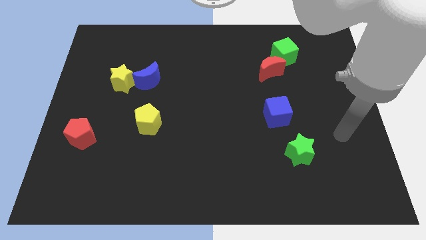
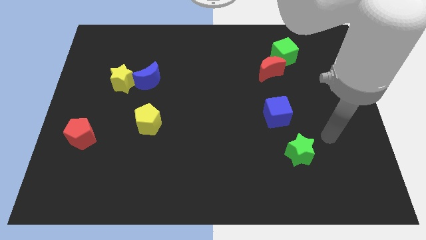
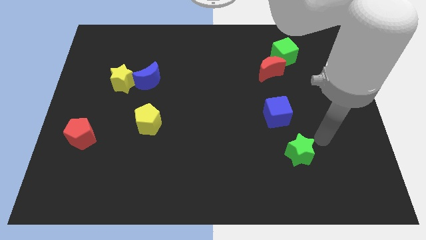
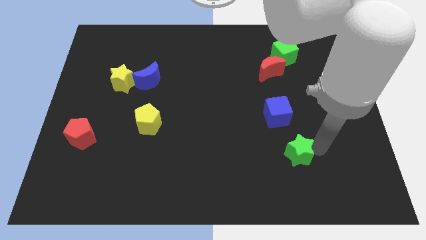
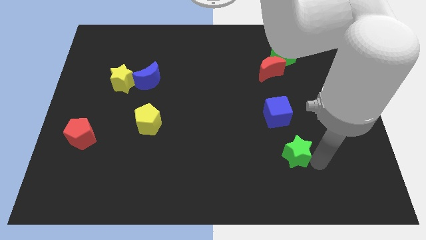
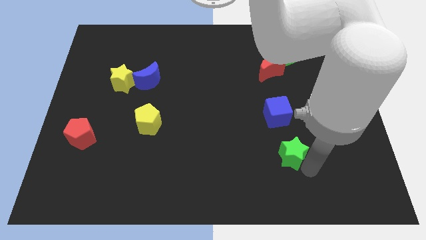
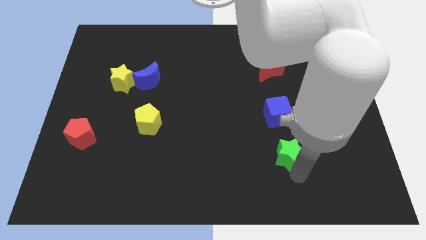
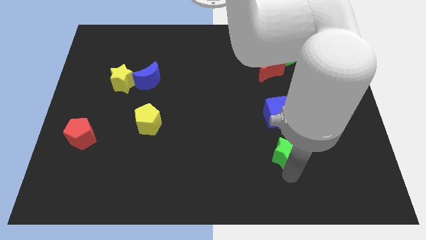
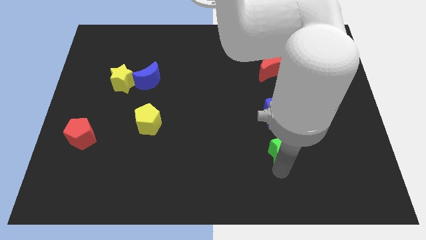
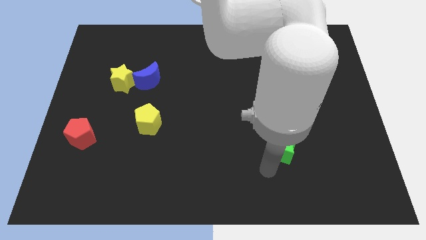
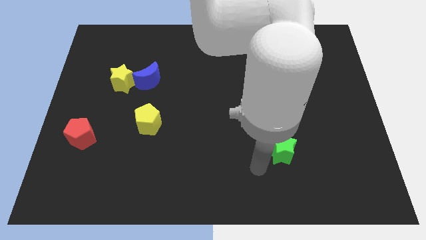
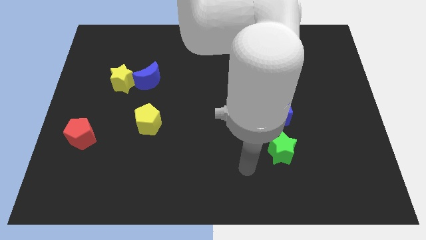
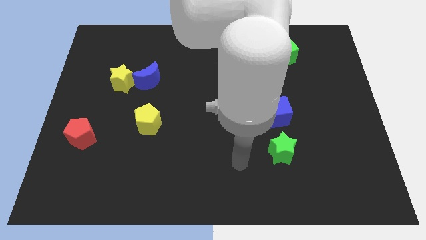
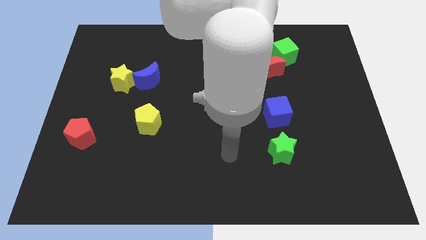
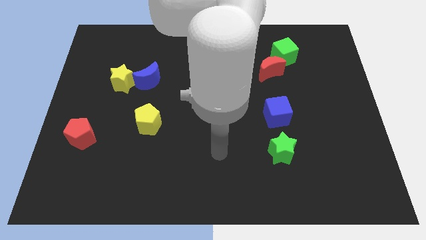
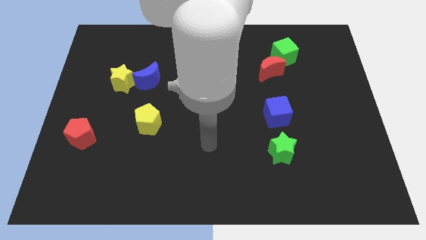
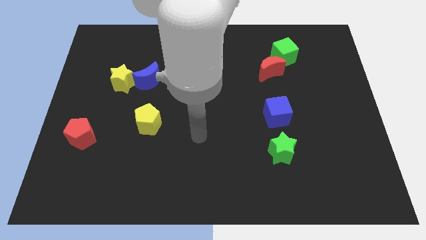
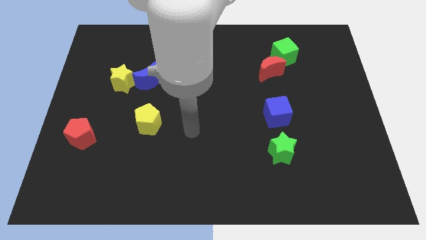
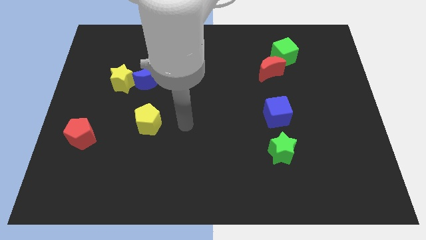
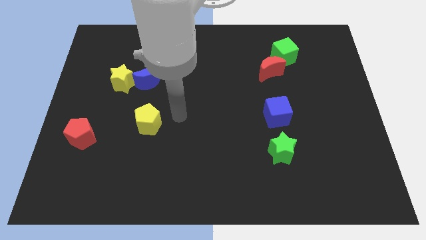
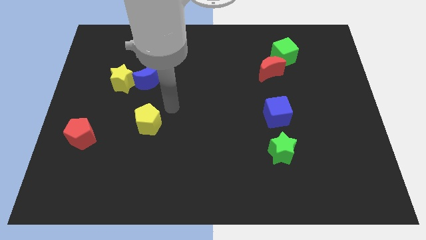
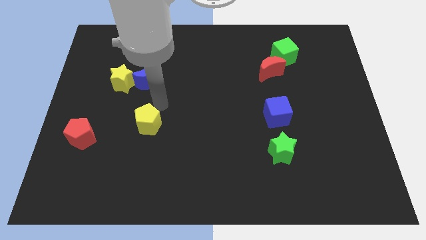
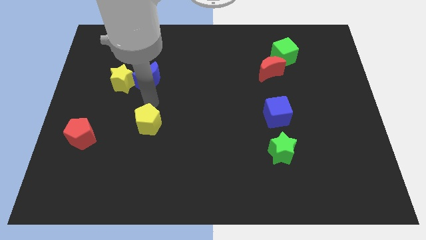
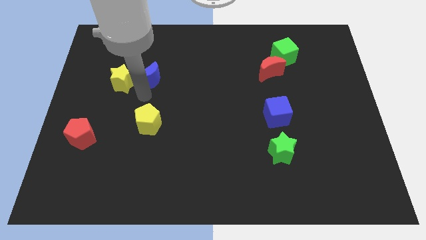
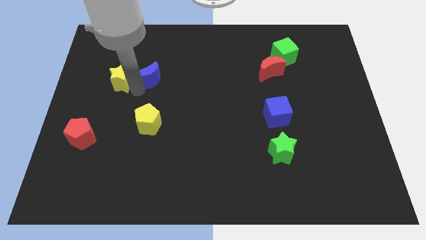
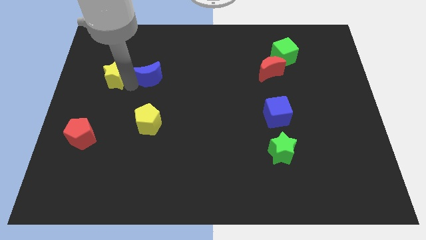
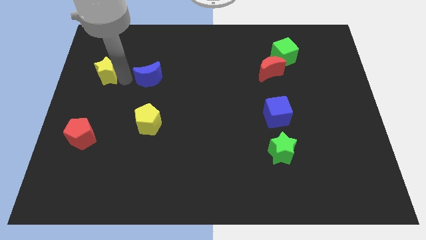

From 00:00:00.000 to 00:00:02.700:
pull the blue moon apart from the yellow star

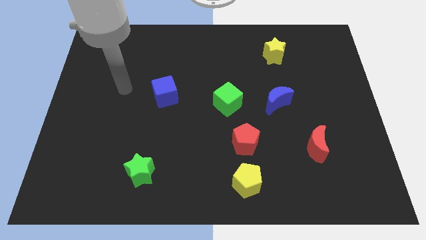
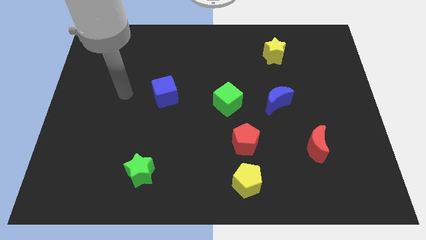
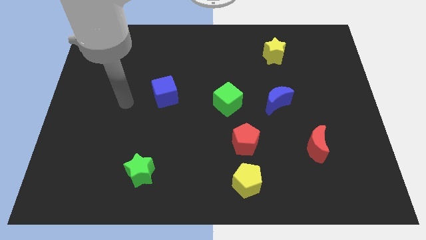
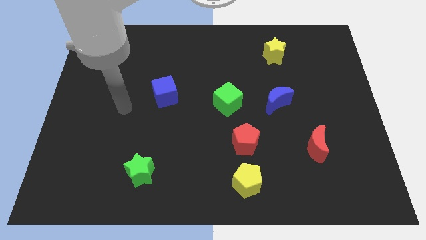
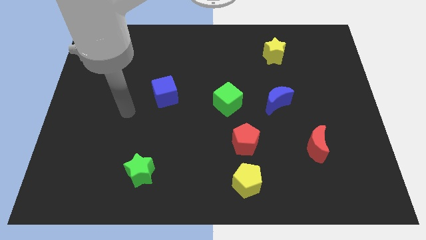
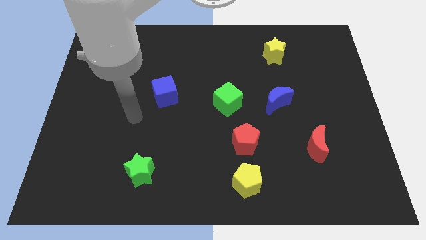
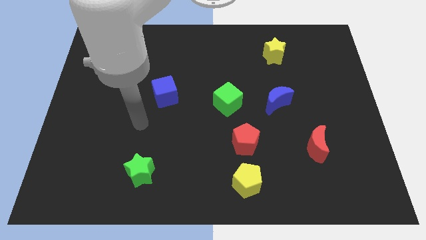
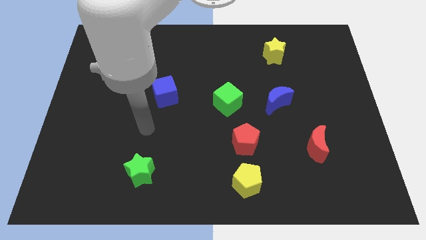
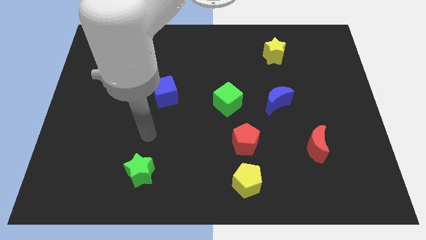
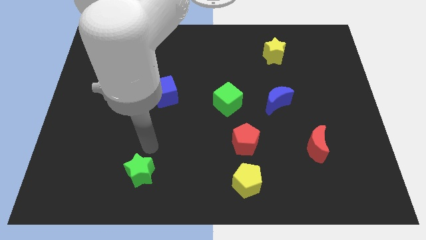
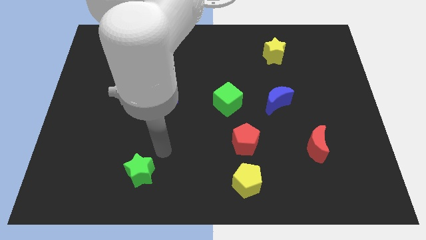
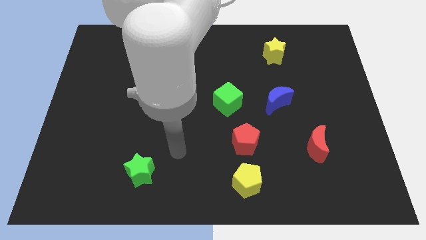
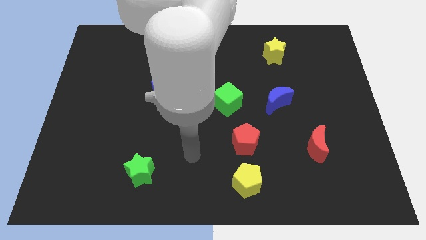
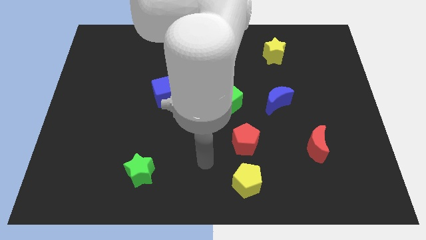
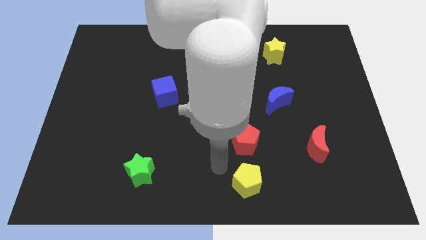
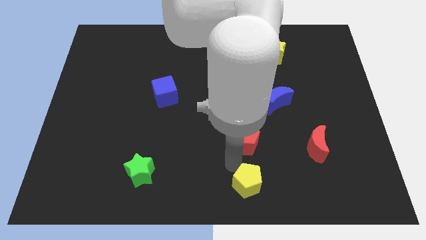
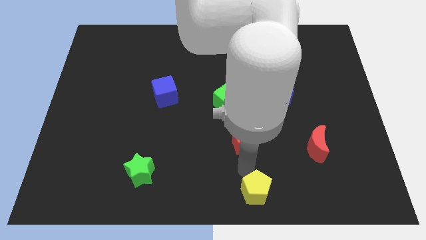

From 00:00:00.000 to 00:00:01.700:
separate the red pentagon from the yellow pentagon

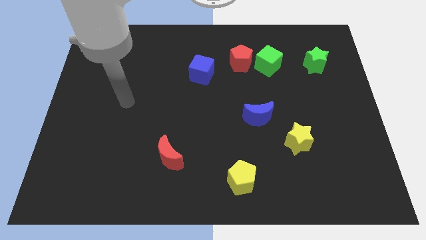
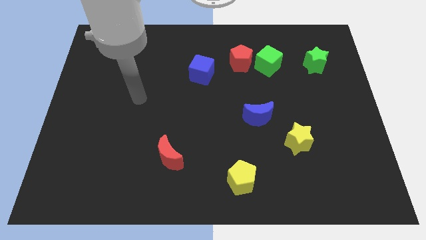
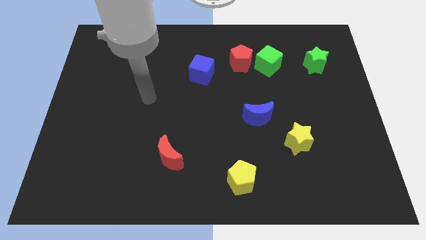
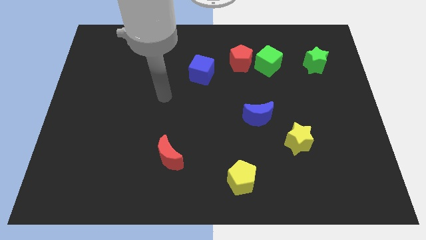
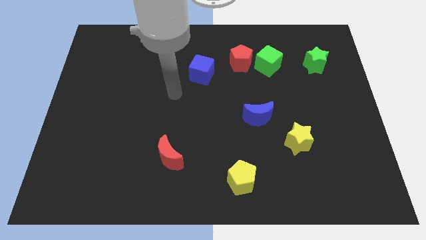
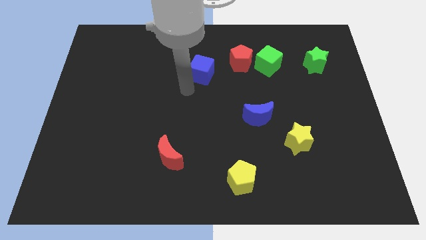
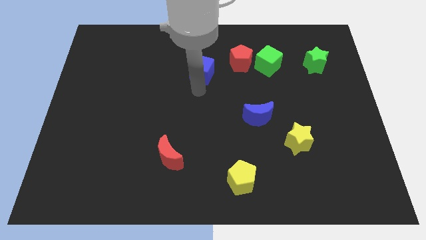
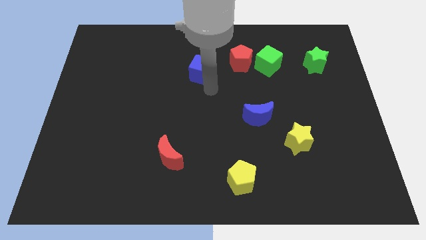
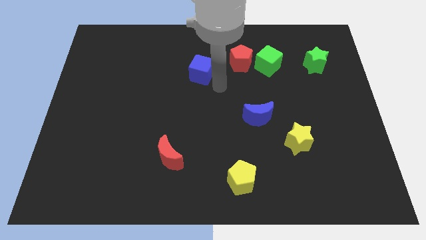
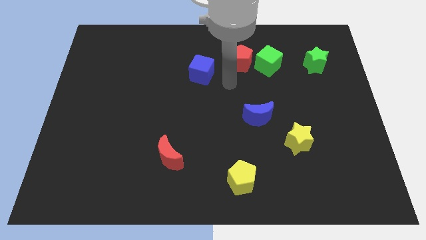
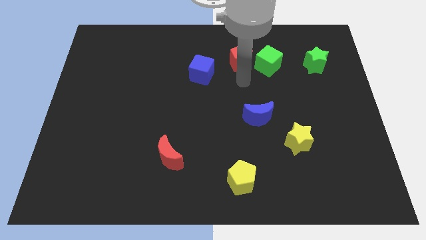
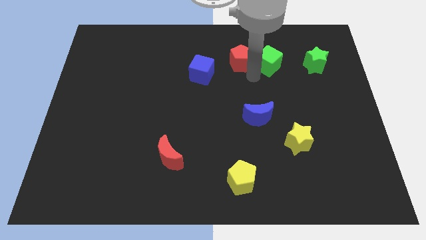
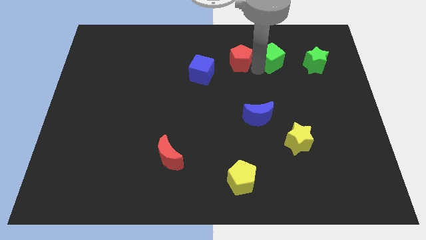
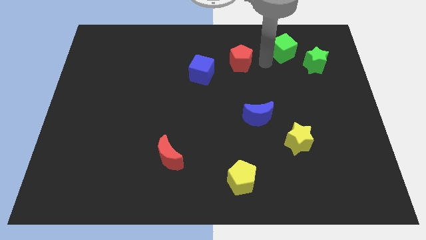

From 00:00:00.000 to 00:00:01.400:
move the red pentagon away from the green cube

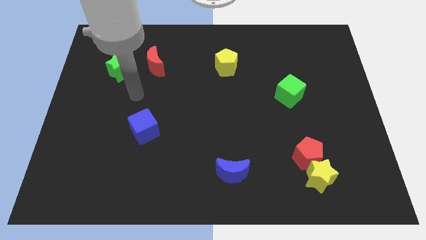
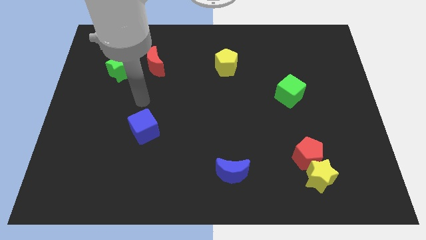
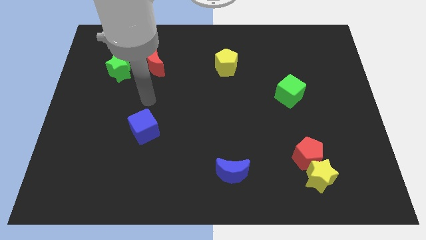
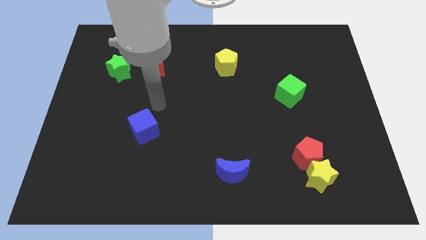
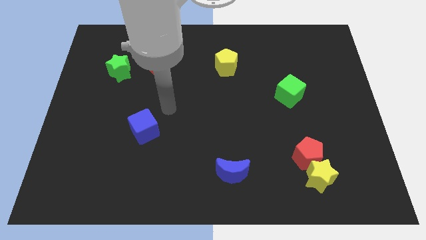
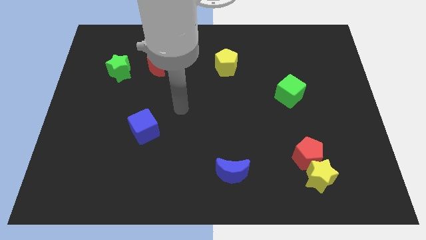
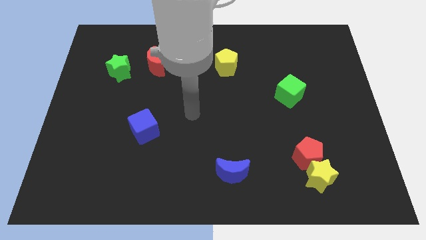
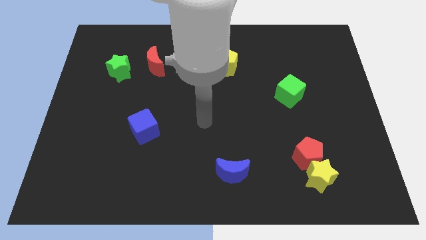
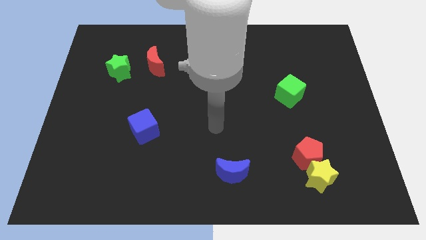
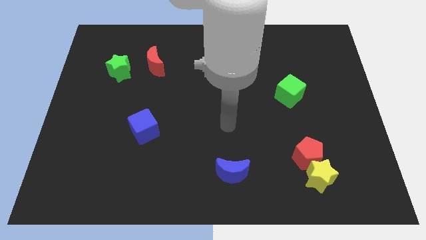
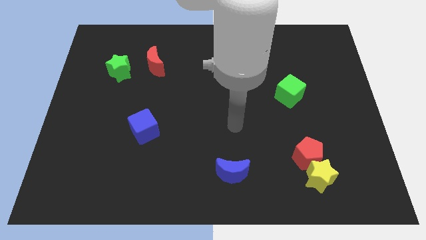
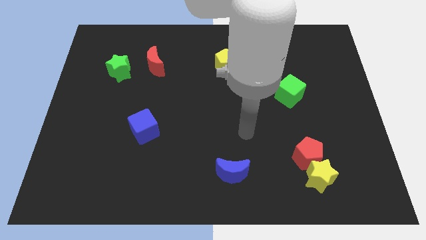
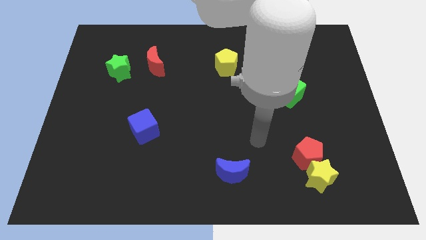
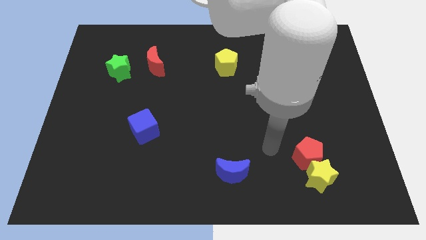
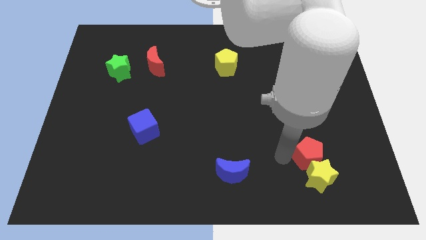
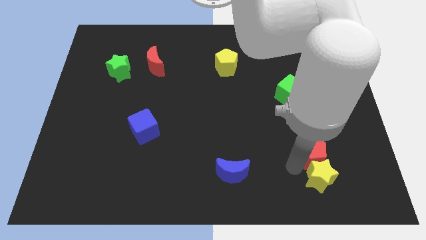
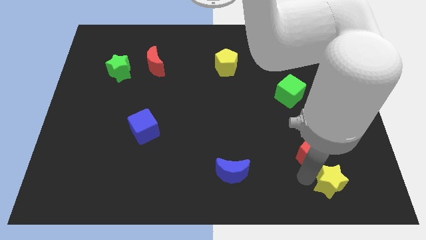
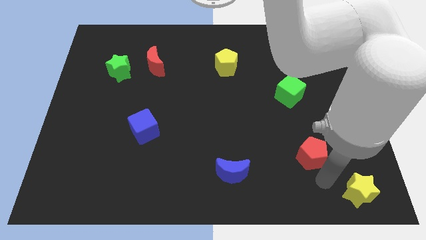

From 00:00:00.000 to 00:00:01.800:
move the red pentagon away from the yellow star

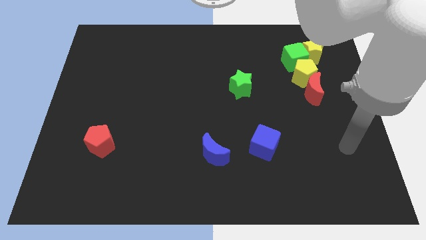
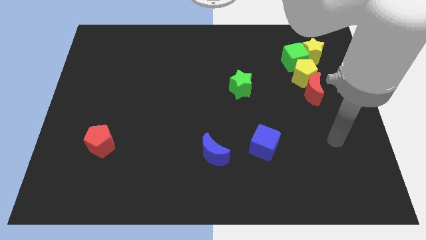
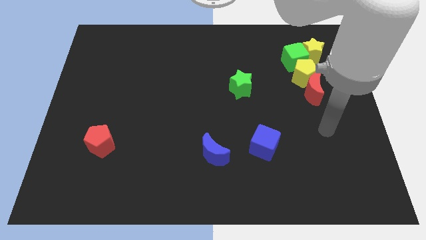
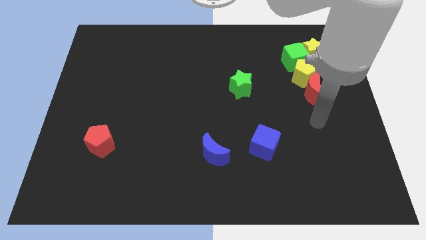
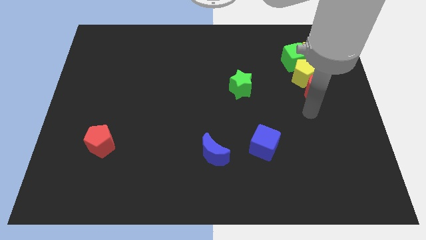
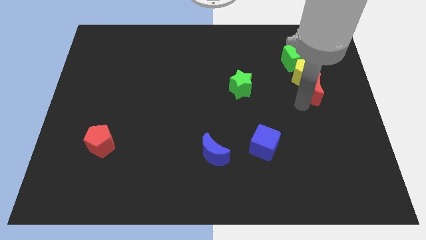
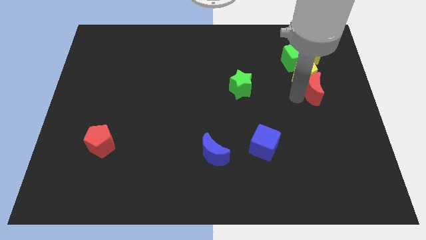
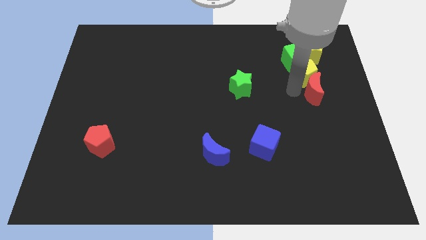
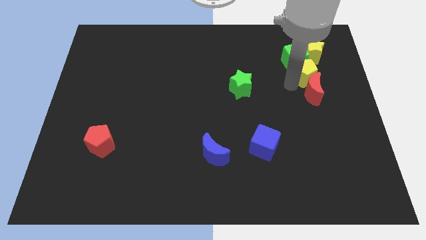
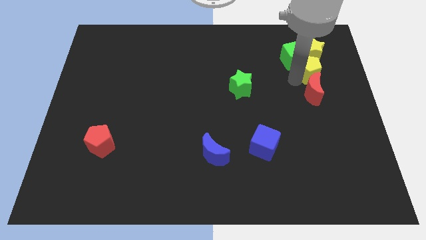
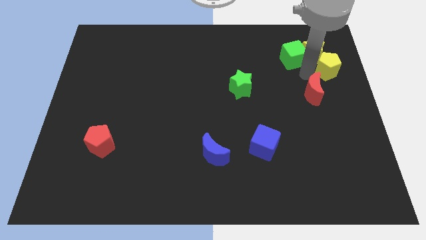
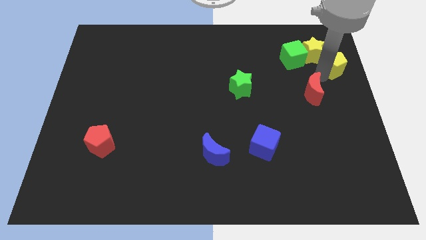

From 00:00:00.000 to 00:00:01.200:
separate the red moon from the yellow pentagon

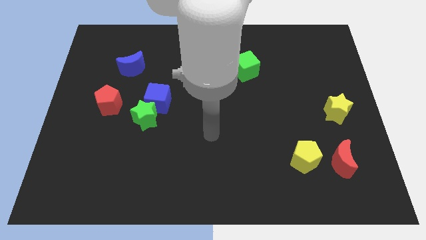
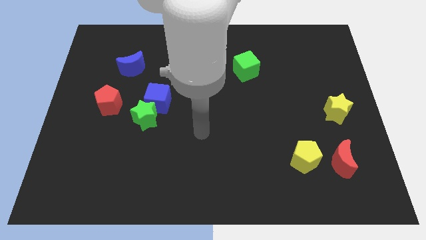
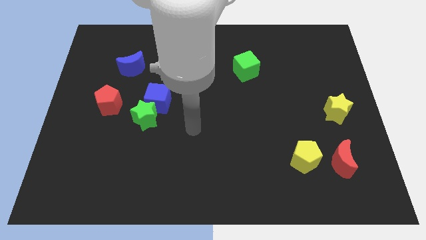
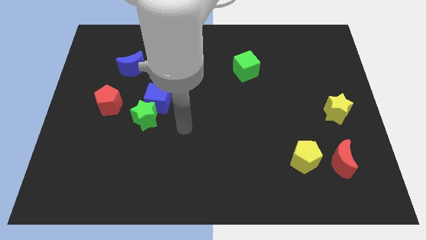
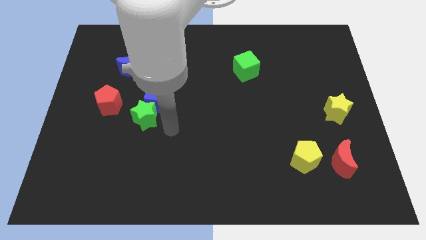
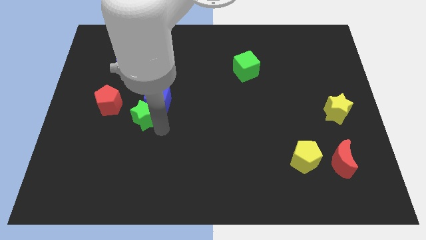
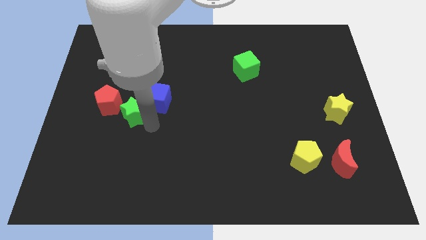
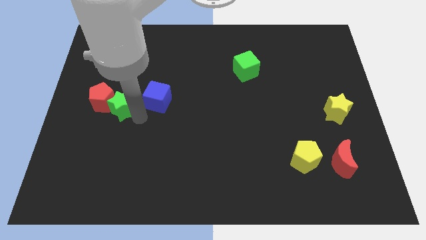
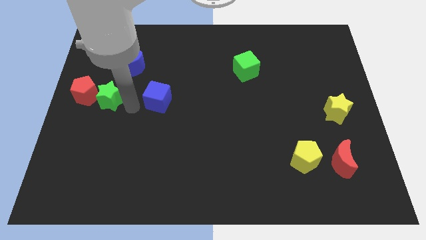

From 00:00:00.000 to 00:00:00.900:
move the blue cube away from the green star
